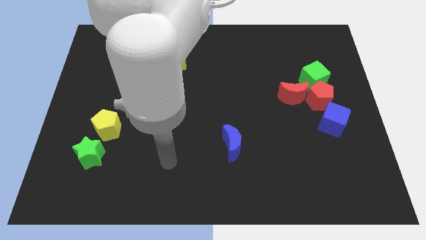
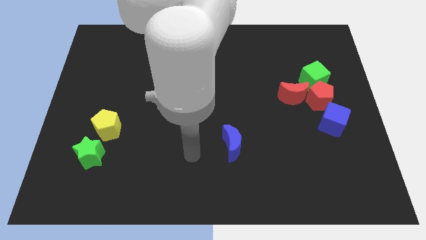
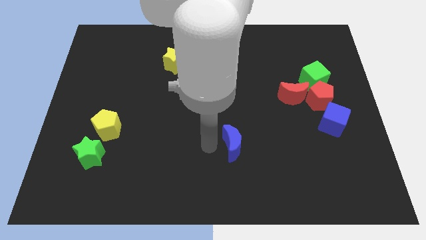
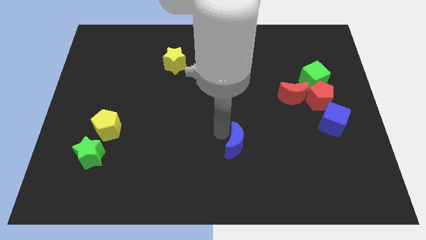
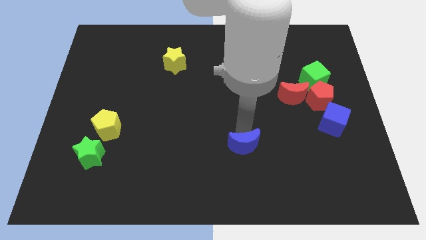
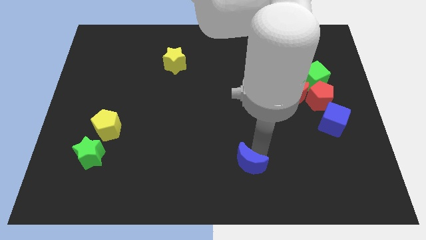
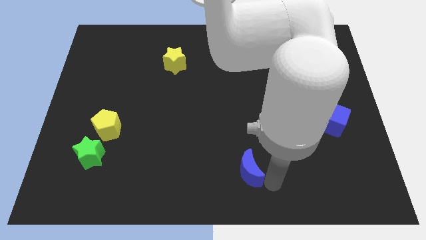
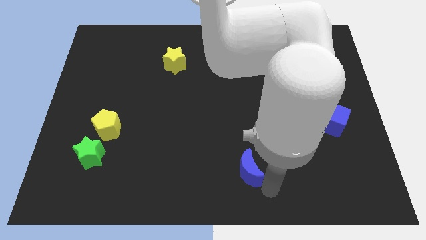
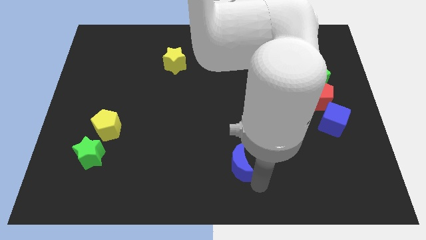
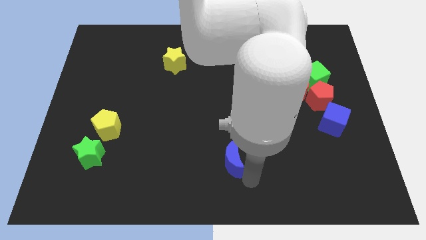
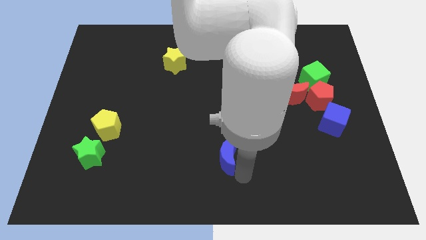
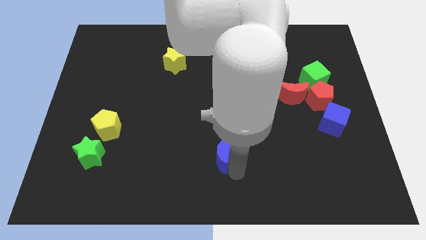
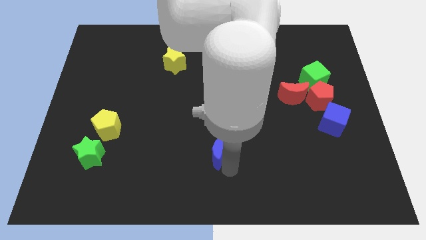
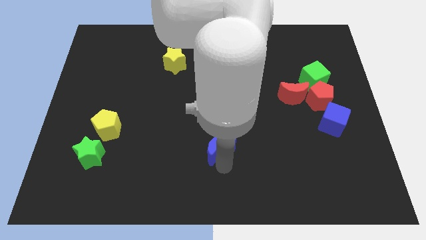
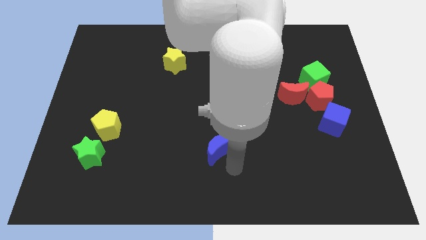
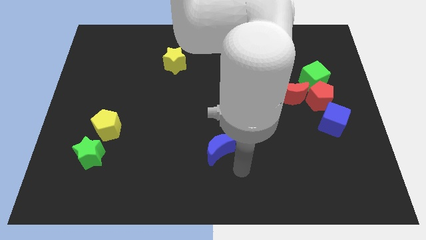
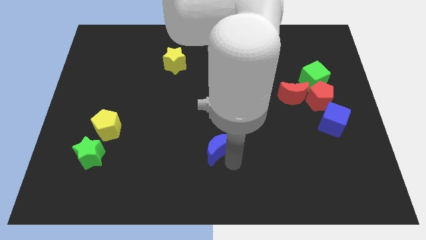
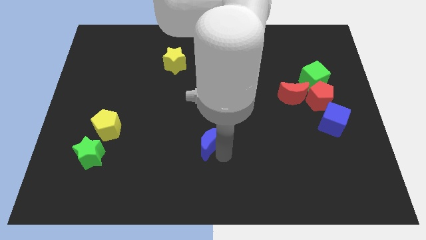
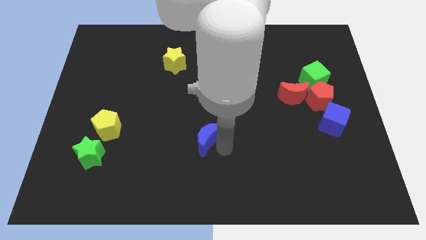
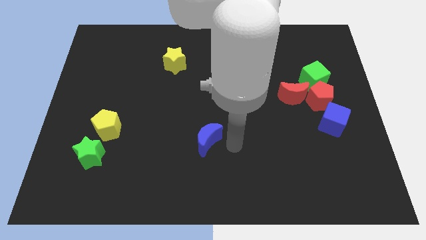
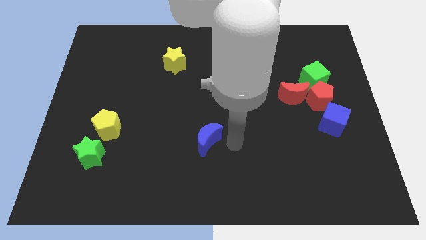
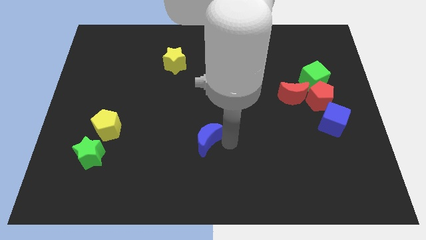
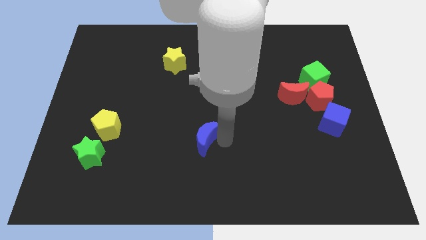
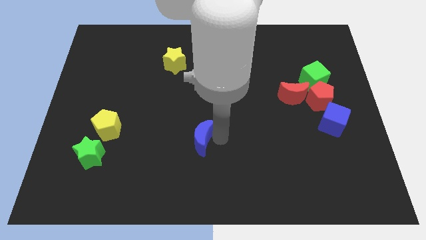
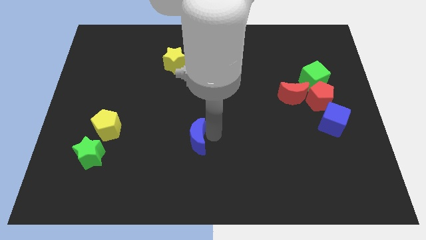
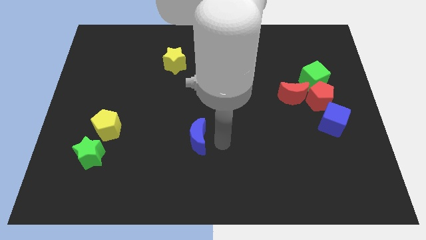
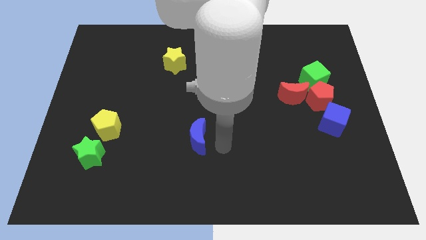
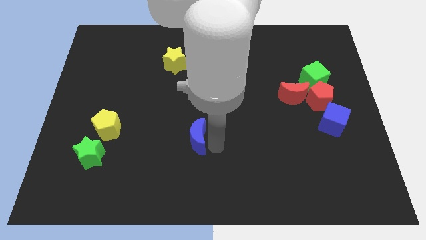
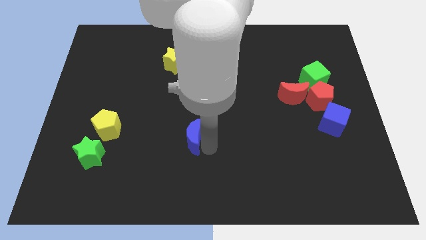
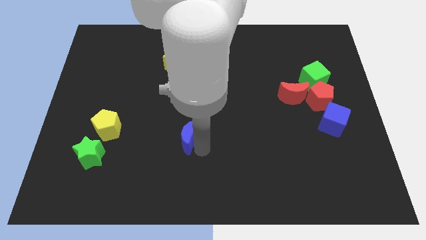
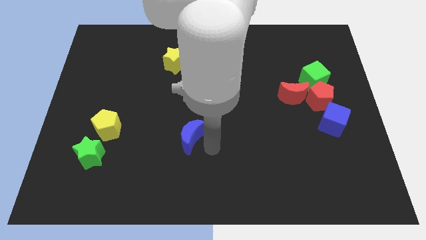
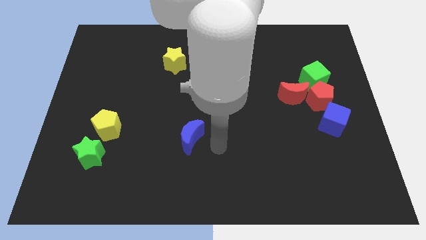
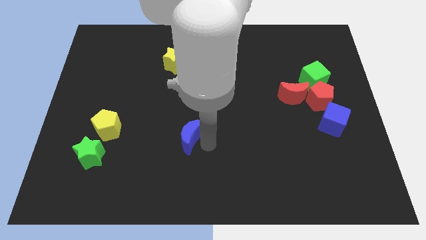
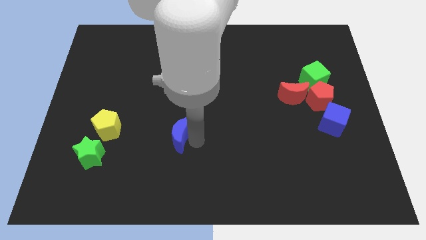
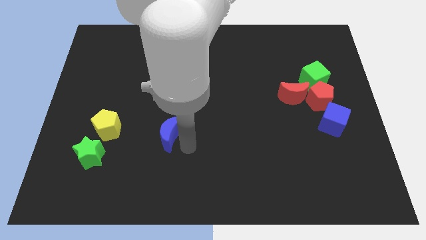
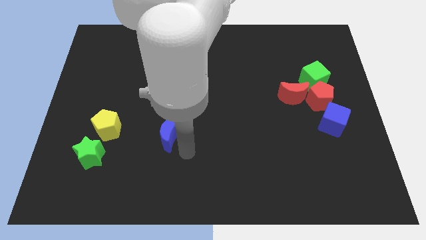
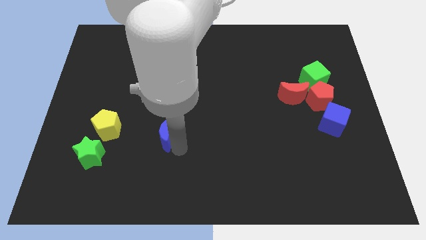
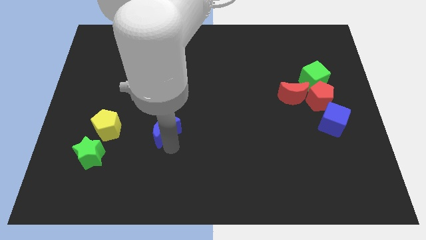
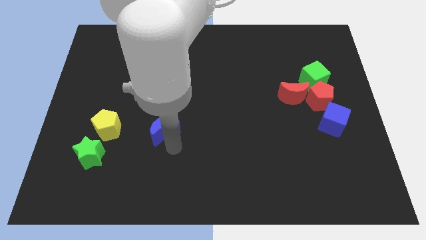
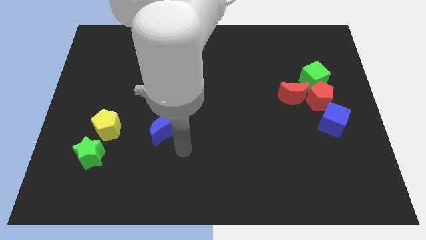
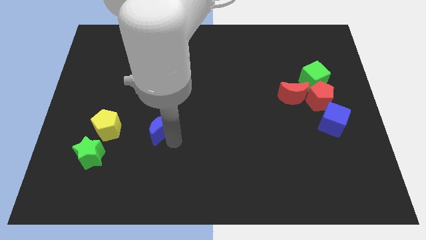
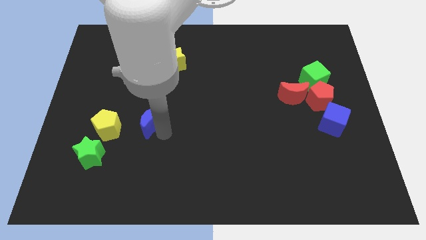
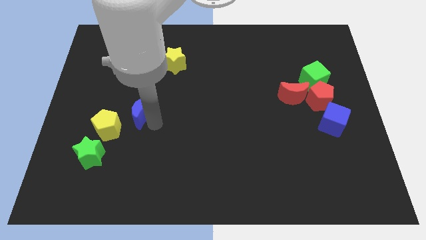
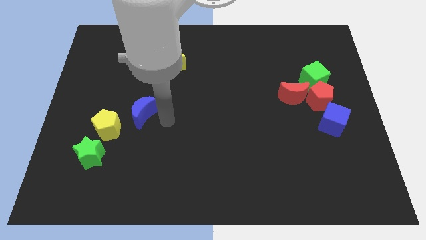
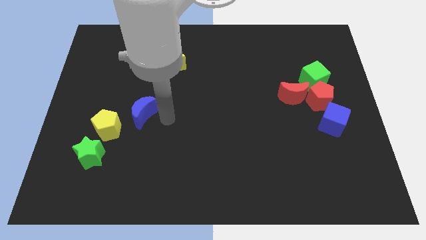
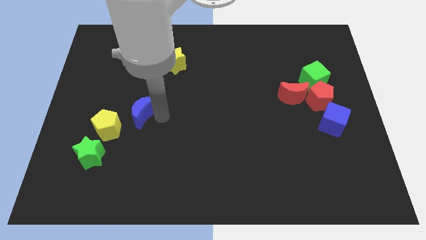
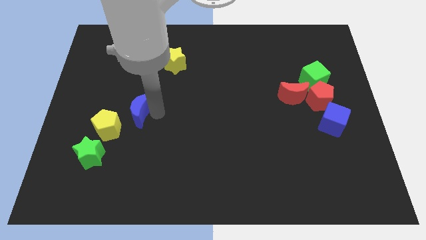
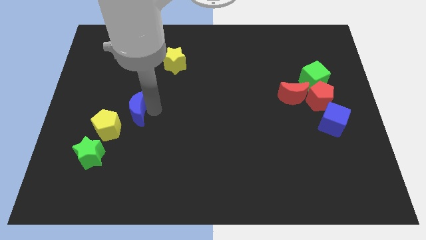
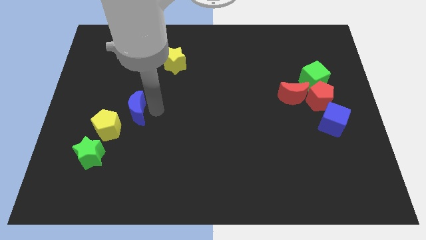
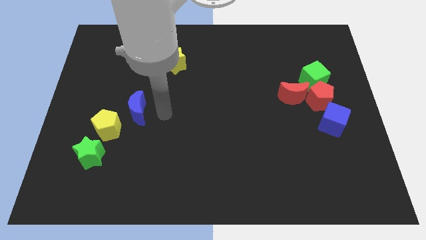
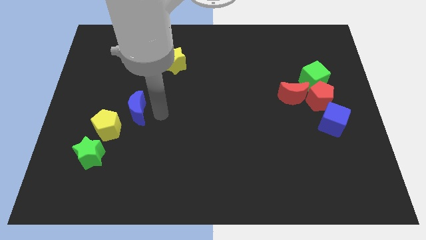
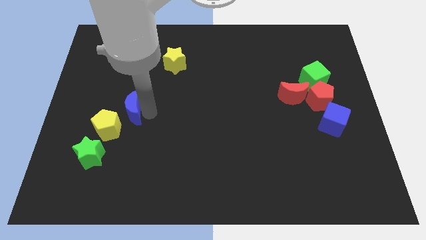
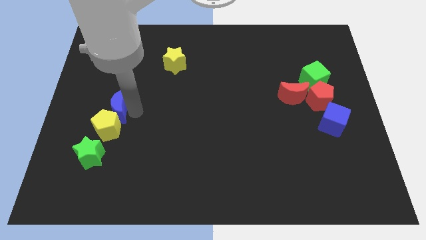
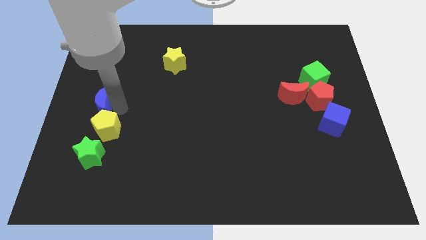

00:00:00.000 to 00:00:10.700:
move the blue moon to the left side

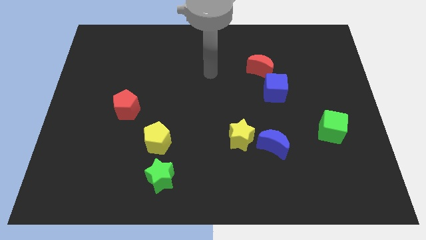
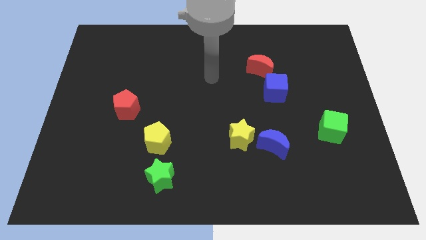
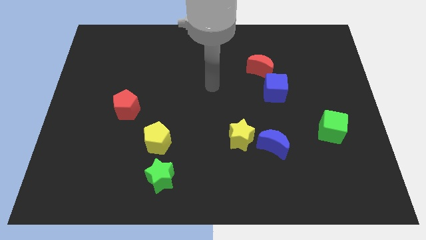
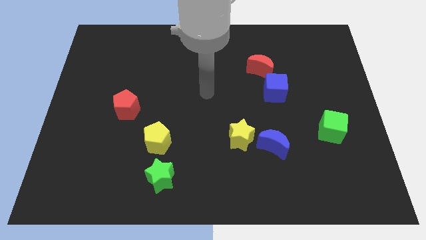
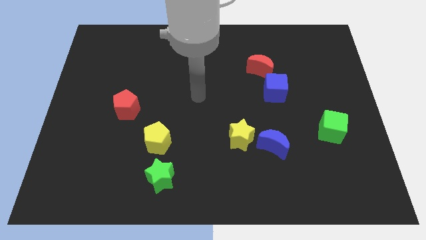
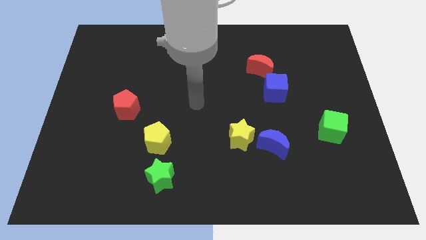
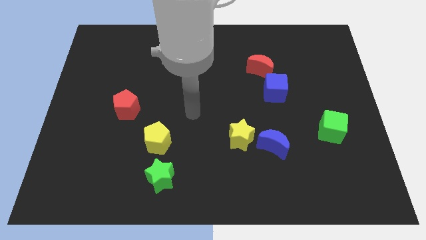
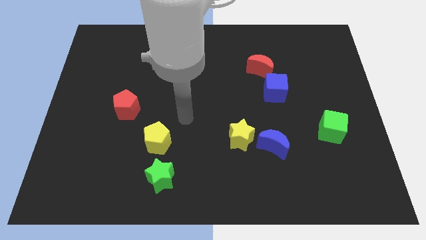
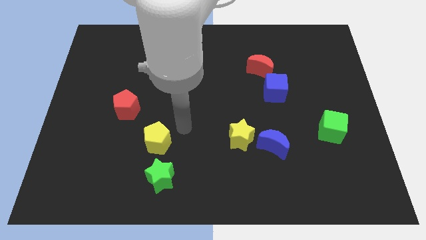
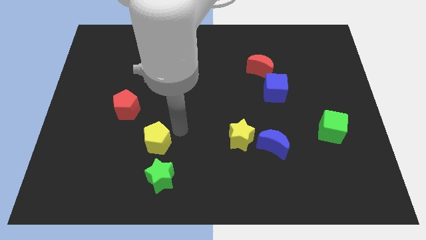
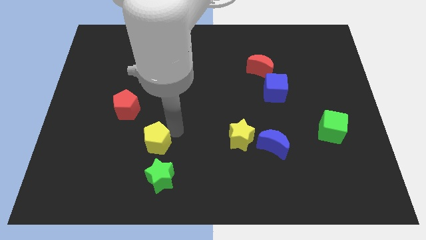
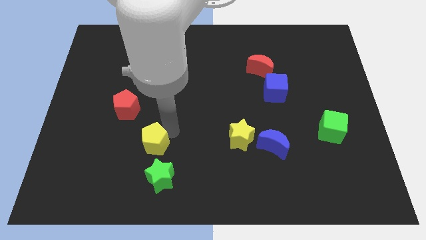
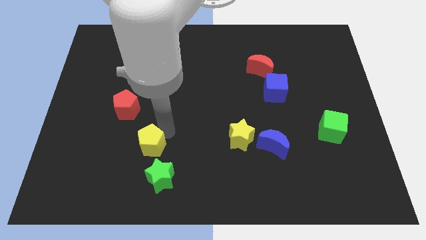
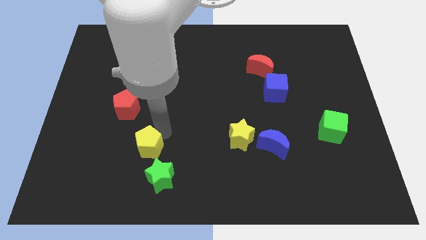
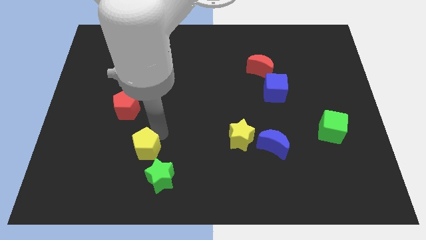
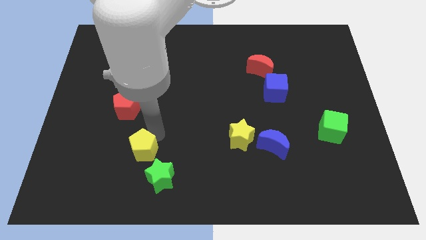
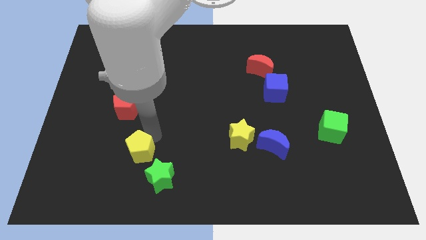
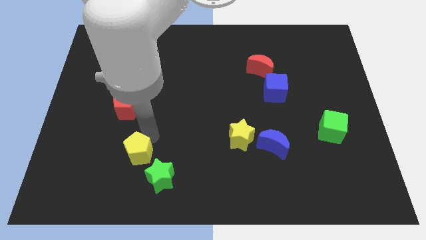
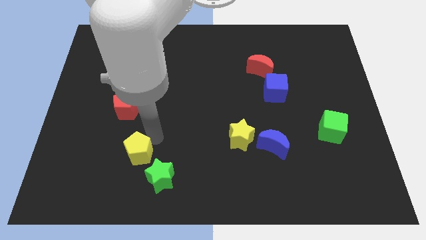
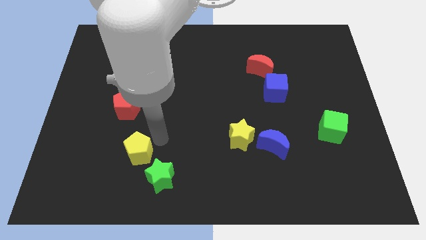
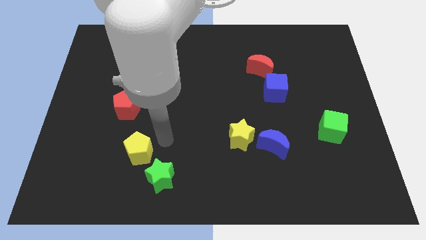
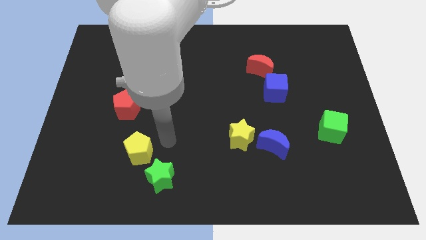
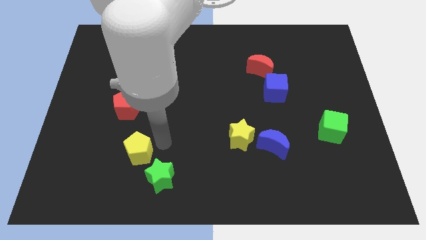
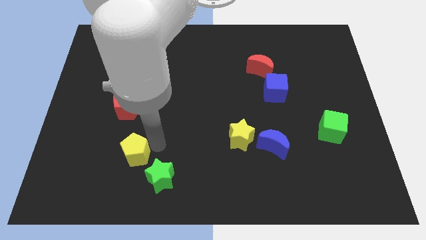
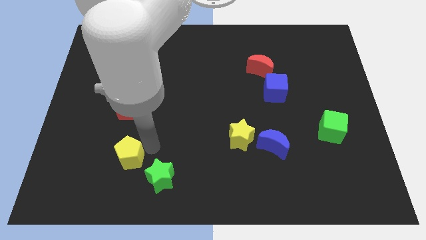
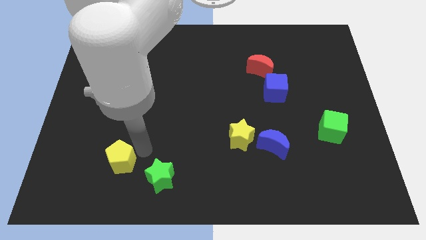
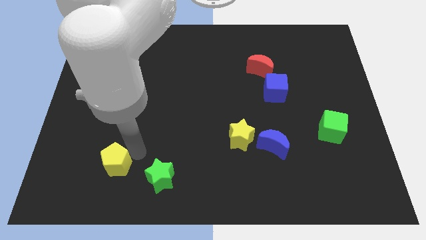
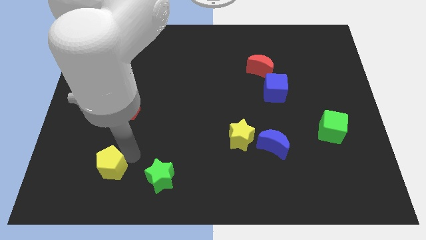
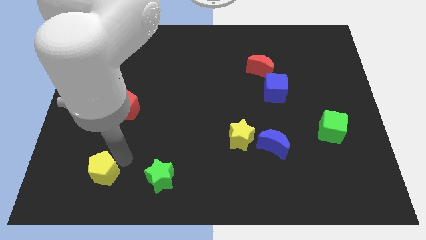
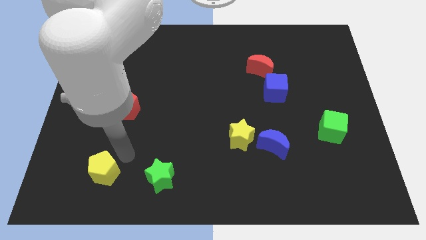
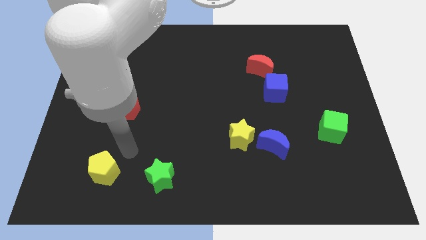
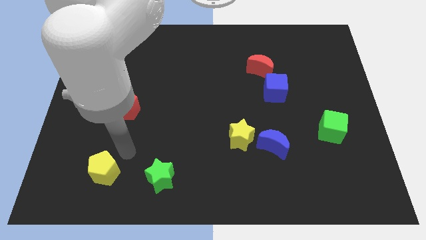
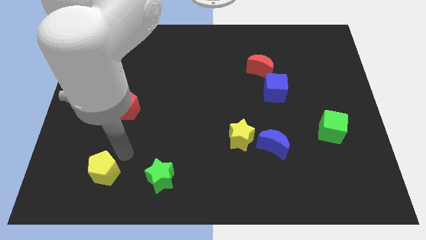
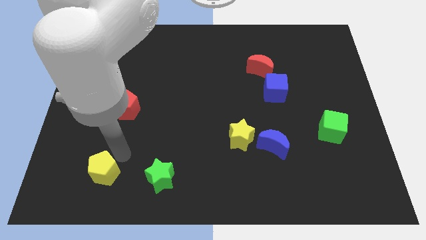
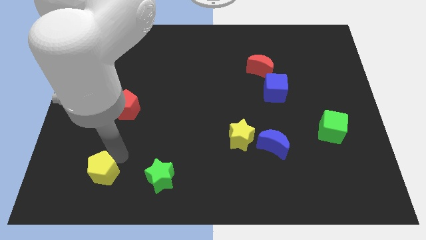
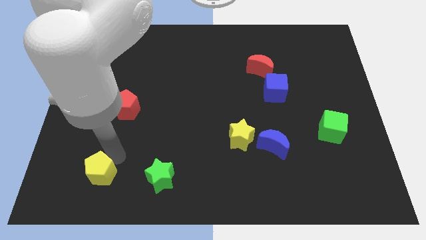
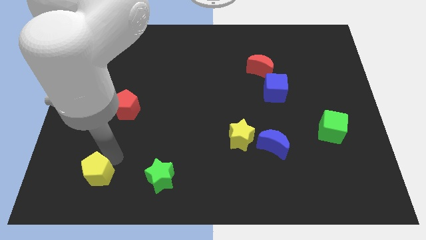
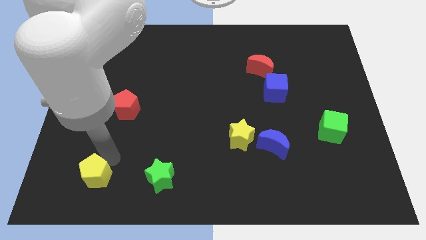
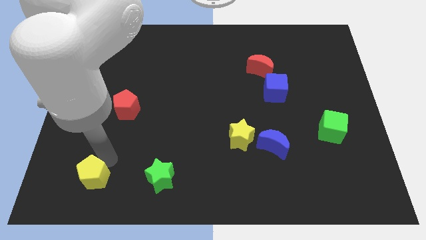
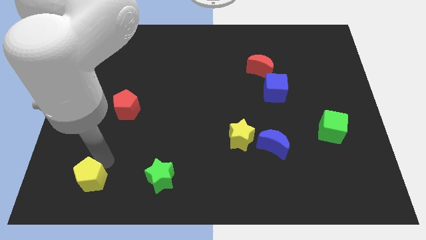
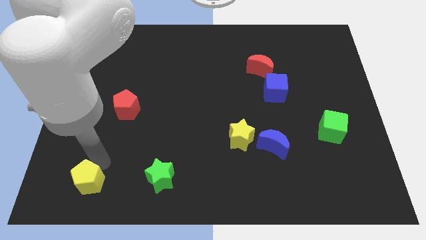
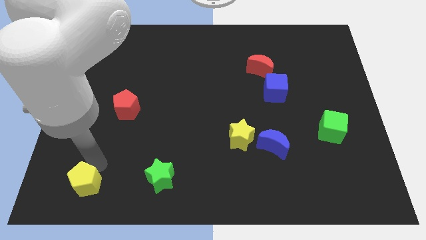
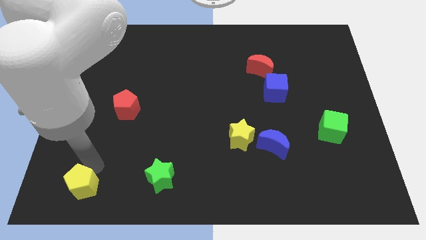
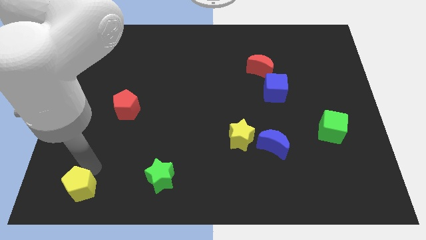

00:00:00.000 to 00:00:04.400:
push the yellow pentagon to the bottom left corner
